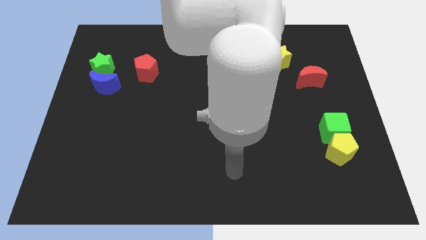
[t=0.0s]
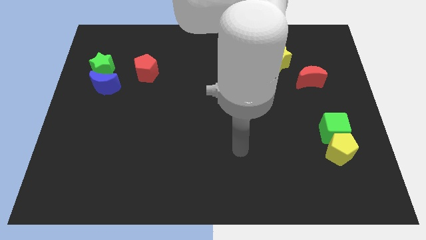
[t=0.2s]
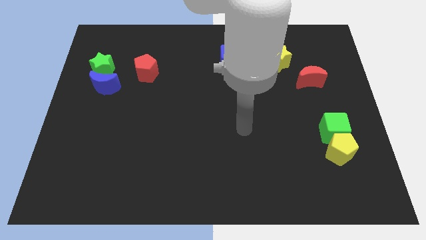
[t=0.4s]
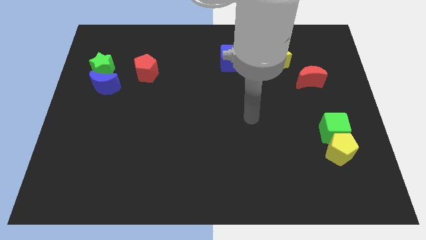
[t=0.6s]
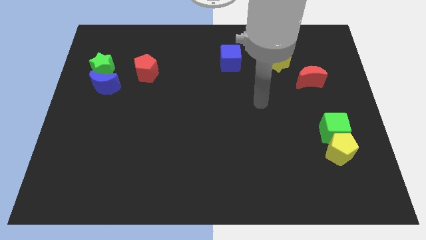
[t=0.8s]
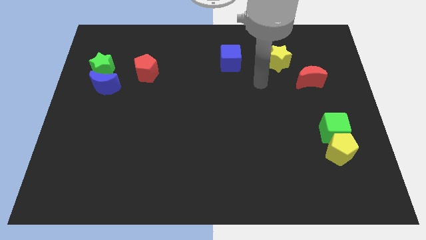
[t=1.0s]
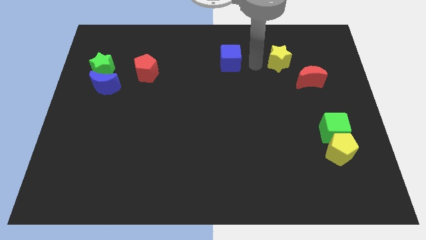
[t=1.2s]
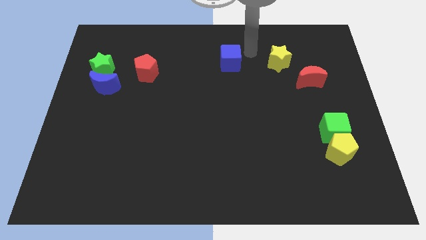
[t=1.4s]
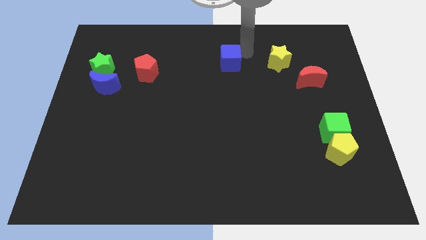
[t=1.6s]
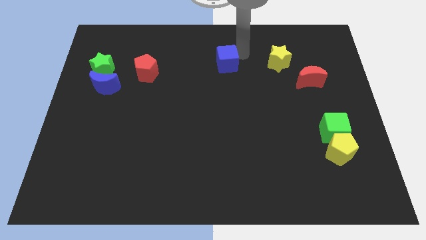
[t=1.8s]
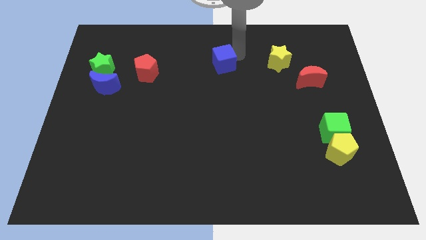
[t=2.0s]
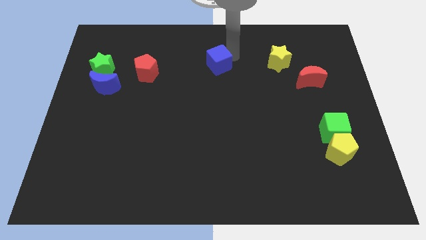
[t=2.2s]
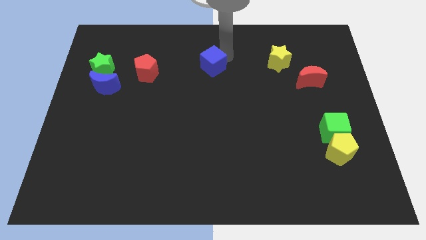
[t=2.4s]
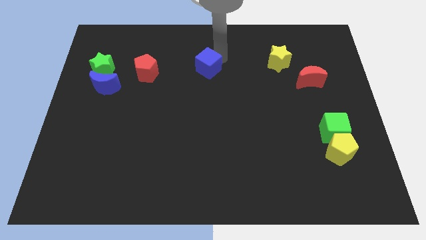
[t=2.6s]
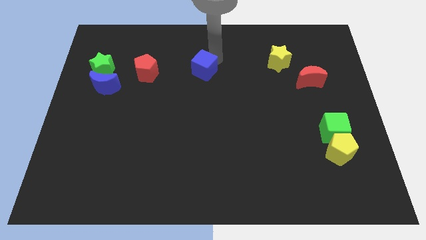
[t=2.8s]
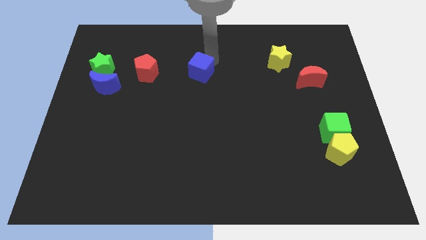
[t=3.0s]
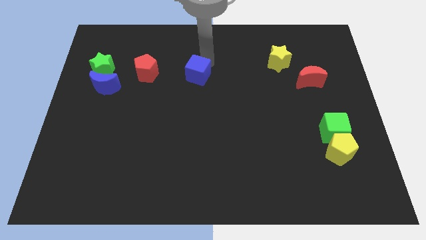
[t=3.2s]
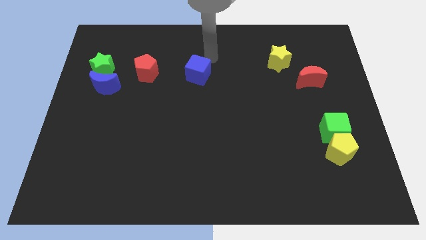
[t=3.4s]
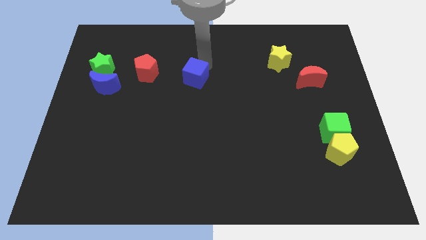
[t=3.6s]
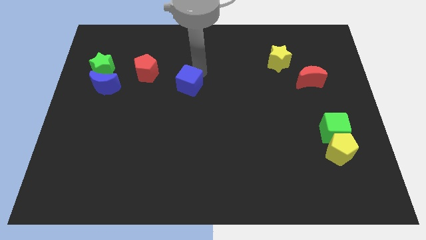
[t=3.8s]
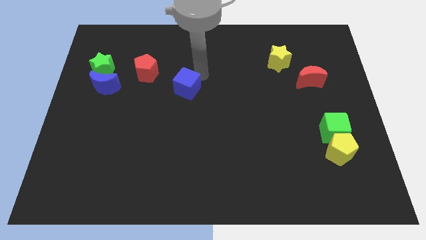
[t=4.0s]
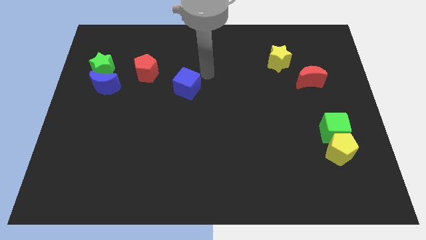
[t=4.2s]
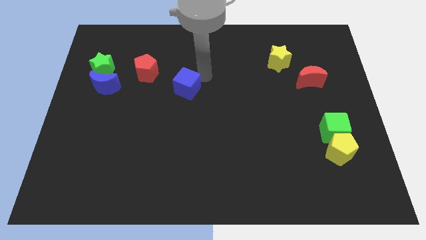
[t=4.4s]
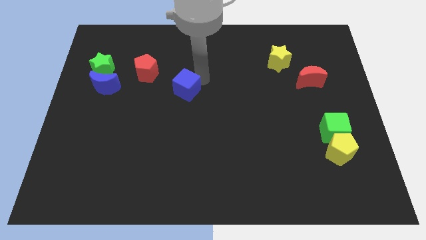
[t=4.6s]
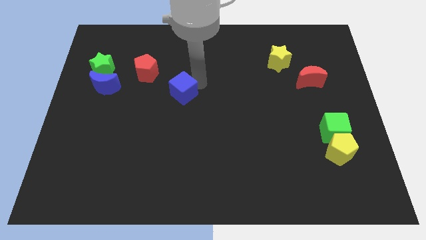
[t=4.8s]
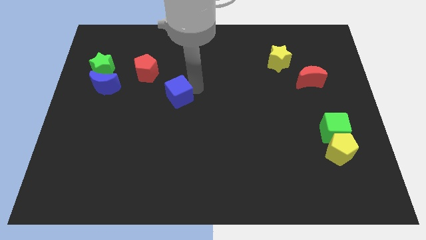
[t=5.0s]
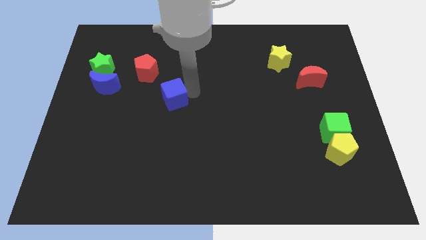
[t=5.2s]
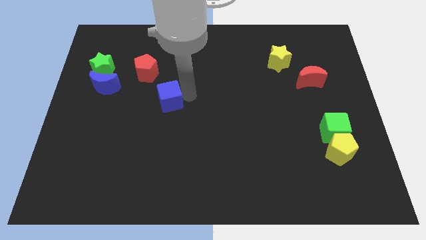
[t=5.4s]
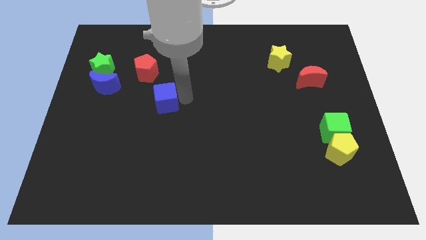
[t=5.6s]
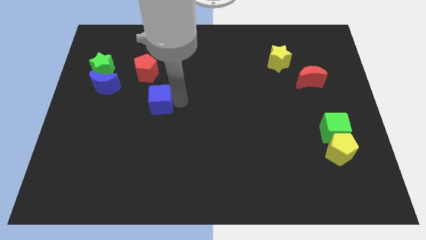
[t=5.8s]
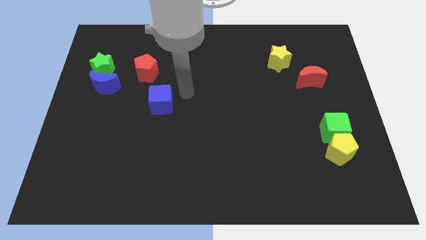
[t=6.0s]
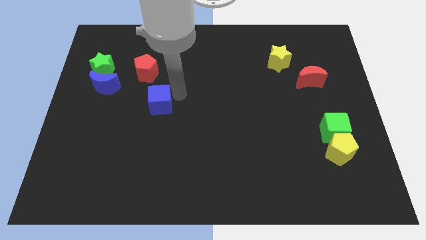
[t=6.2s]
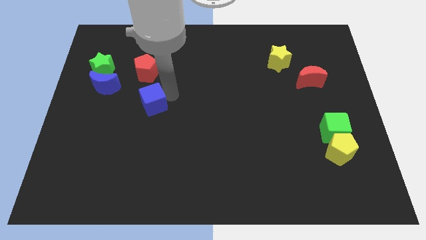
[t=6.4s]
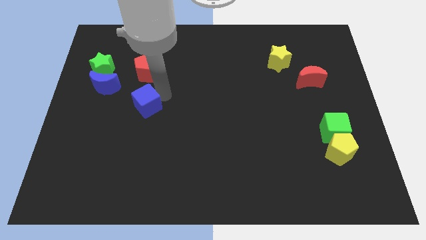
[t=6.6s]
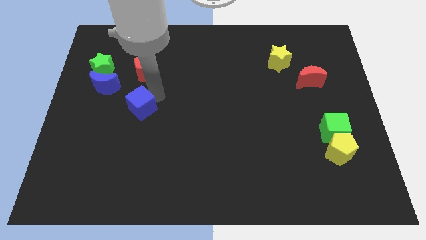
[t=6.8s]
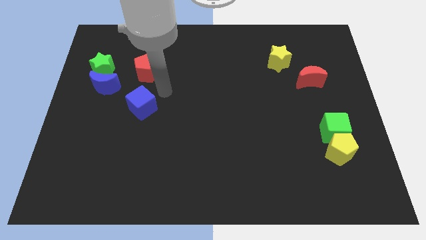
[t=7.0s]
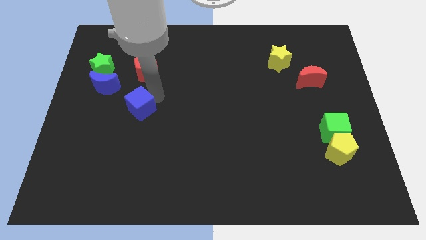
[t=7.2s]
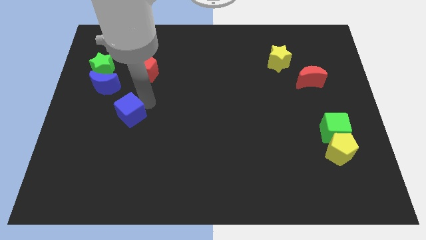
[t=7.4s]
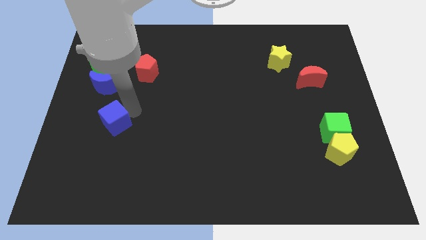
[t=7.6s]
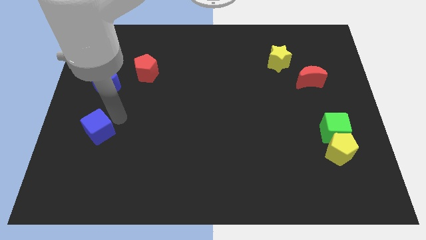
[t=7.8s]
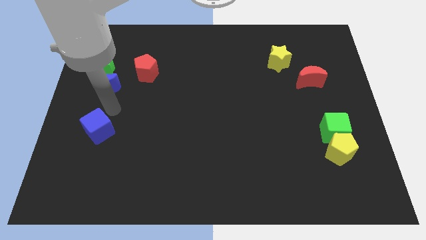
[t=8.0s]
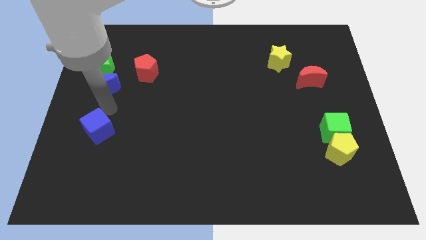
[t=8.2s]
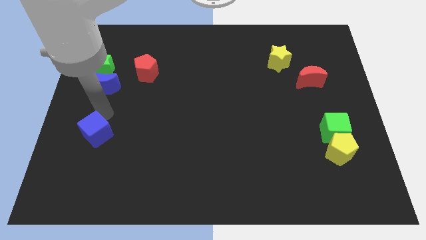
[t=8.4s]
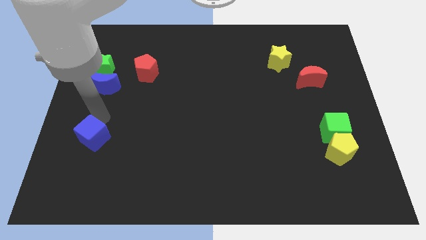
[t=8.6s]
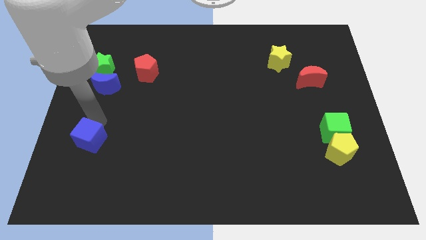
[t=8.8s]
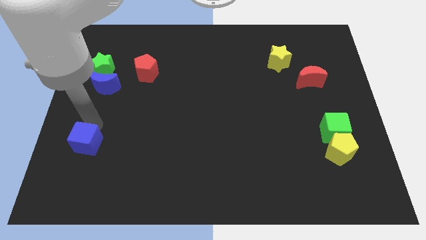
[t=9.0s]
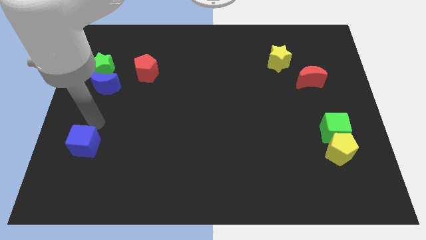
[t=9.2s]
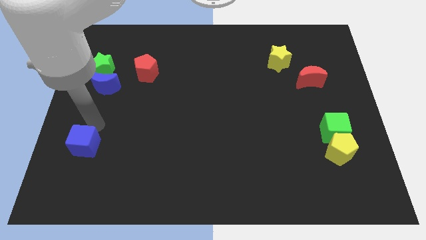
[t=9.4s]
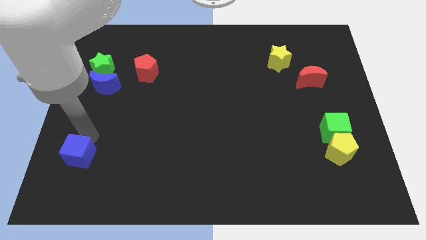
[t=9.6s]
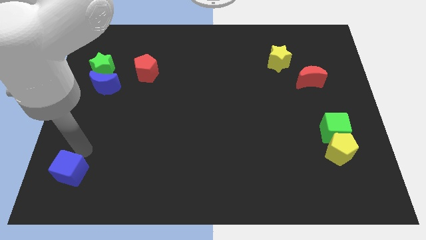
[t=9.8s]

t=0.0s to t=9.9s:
push the blue cube to the bottom left of the board

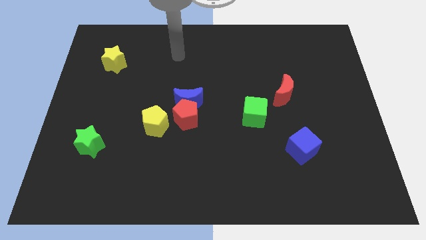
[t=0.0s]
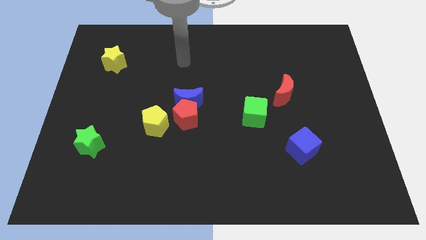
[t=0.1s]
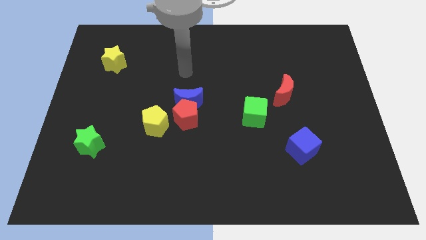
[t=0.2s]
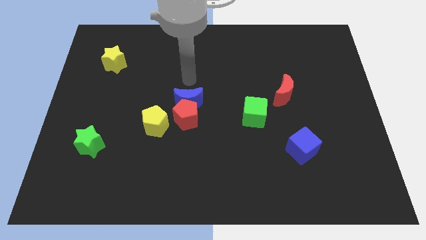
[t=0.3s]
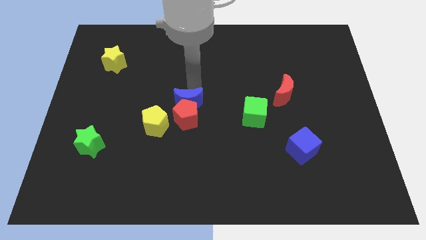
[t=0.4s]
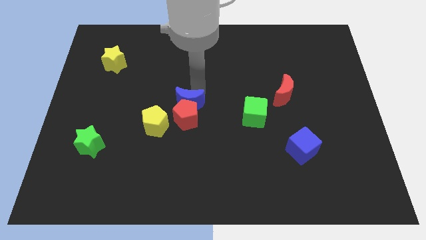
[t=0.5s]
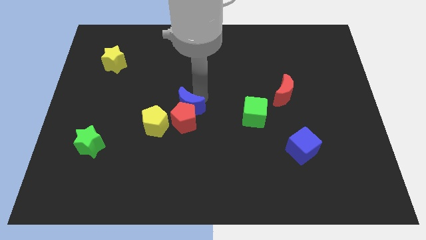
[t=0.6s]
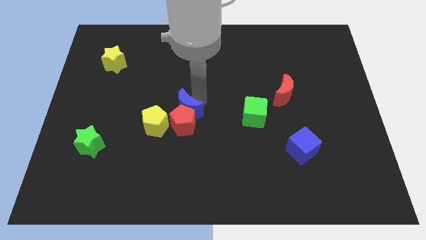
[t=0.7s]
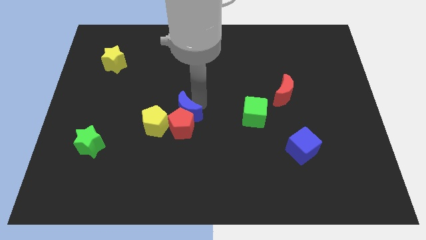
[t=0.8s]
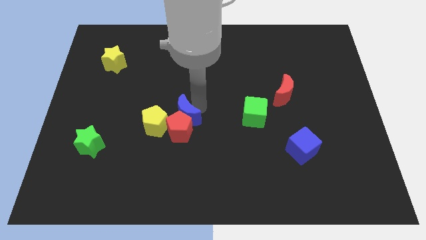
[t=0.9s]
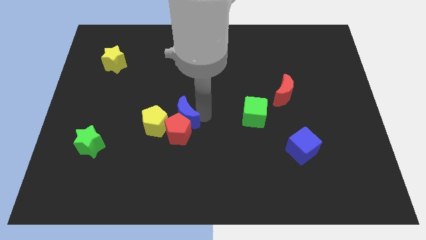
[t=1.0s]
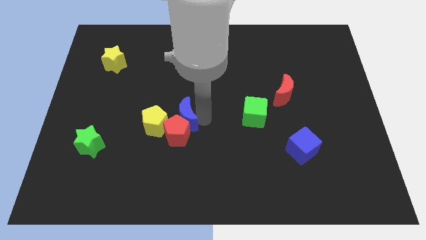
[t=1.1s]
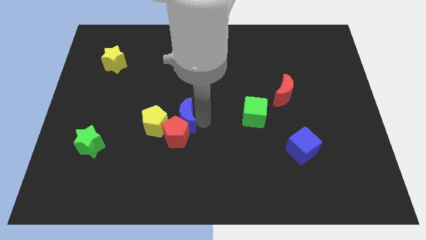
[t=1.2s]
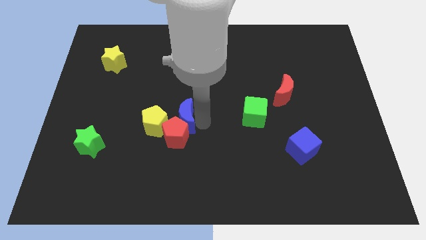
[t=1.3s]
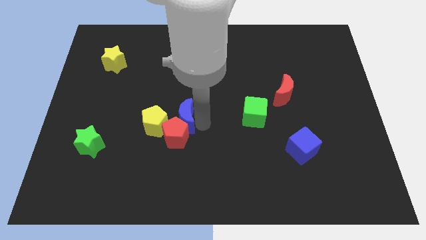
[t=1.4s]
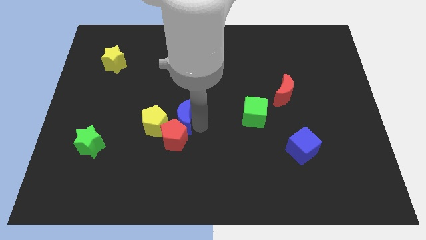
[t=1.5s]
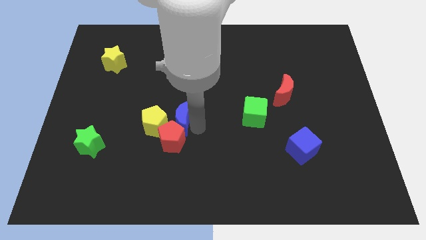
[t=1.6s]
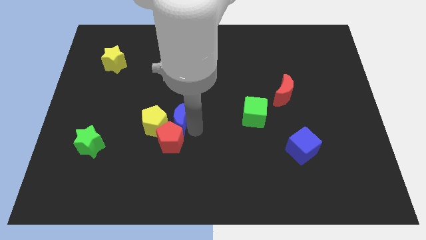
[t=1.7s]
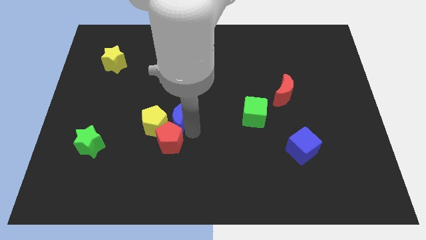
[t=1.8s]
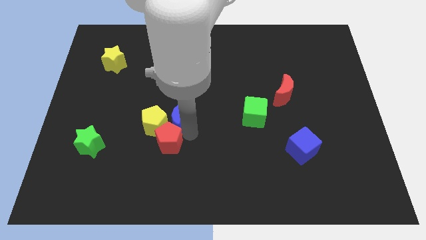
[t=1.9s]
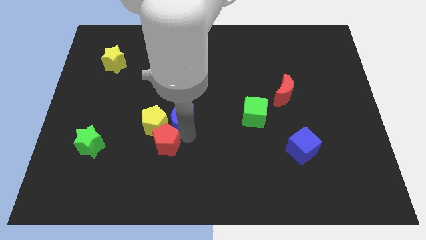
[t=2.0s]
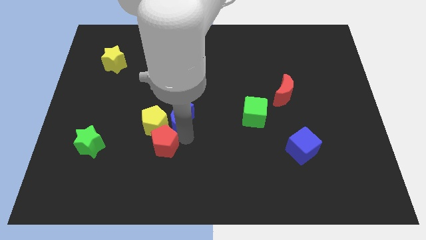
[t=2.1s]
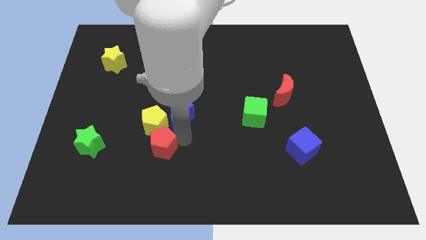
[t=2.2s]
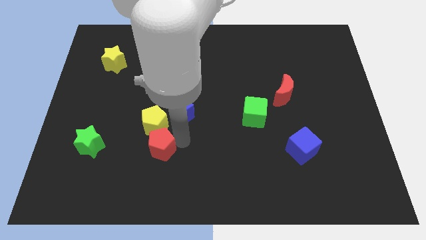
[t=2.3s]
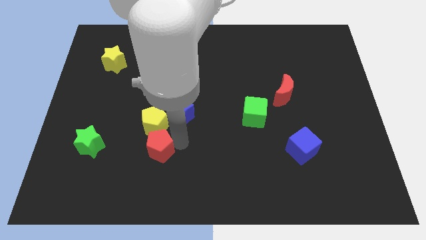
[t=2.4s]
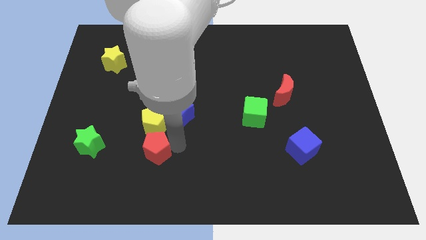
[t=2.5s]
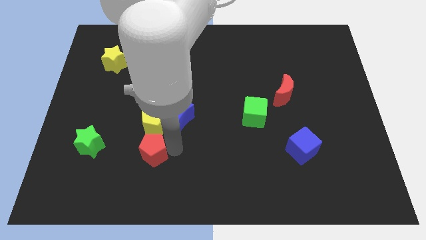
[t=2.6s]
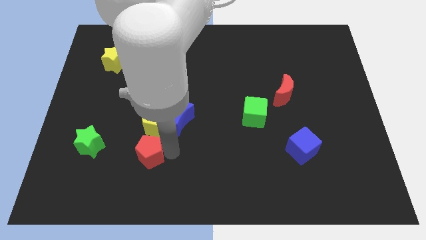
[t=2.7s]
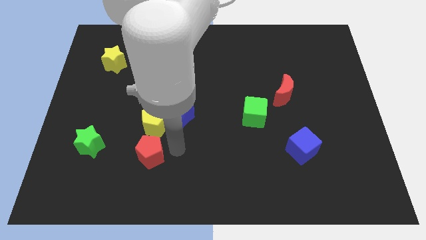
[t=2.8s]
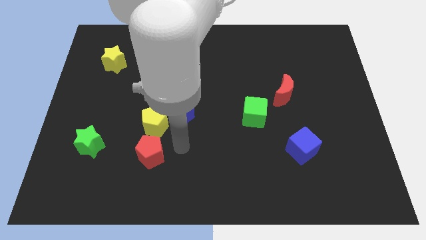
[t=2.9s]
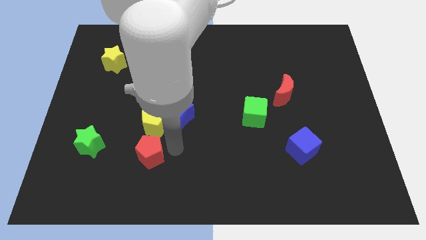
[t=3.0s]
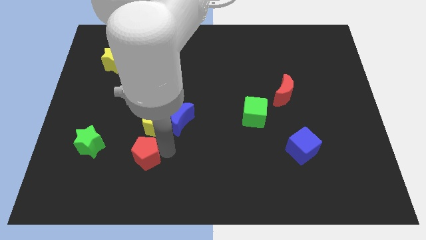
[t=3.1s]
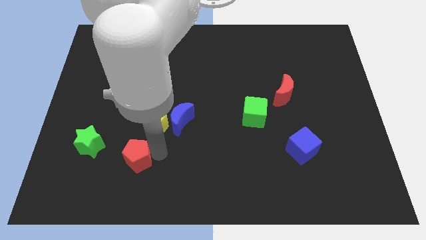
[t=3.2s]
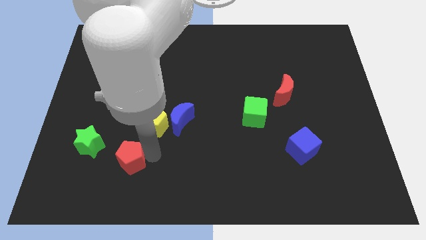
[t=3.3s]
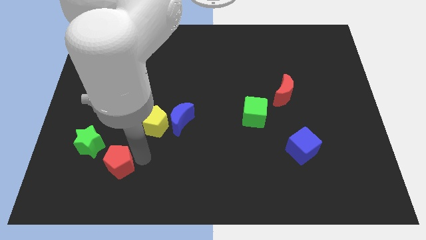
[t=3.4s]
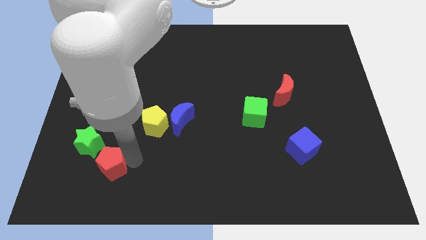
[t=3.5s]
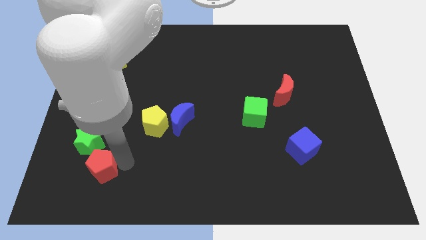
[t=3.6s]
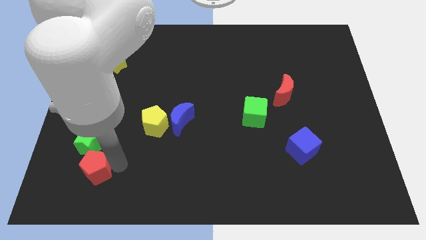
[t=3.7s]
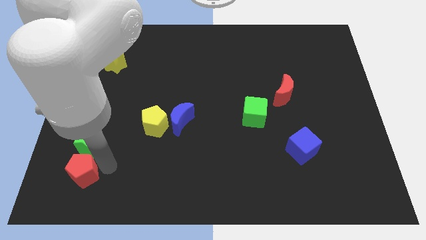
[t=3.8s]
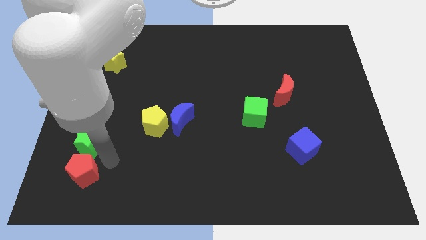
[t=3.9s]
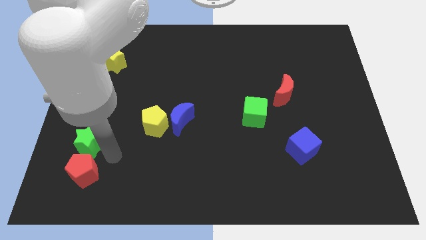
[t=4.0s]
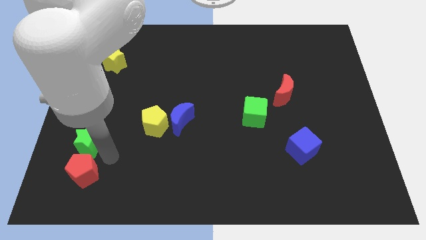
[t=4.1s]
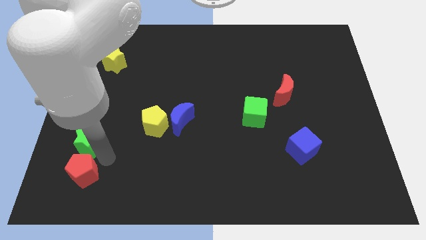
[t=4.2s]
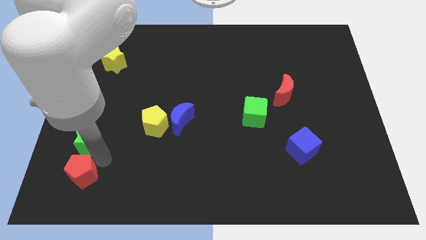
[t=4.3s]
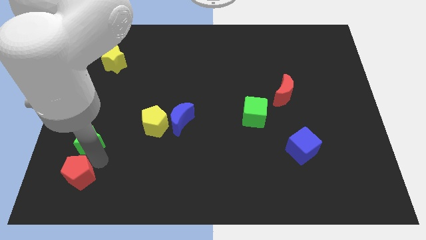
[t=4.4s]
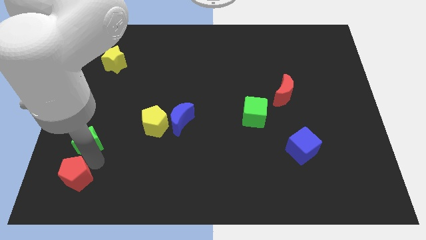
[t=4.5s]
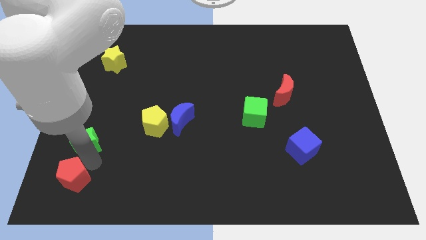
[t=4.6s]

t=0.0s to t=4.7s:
move the red pentagon to the bottom left of the board
